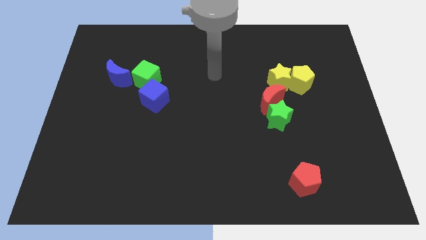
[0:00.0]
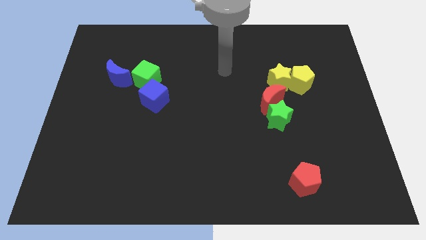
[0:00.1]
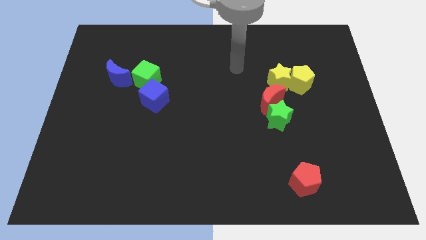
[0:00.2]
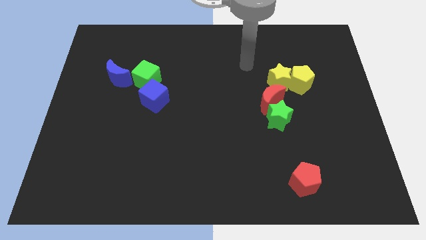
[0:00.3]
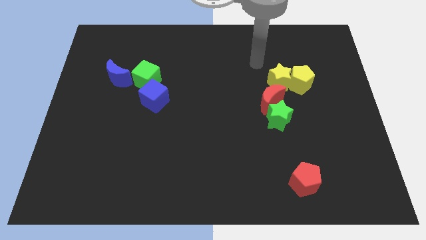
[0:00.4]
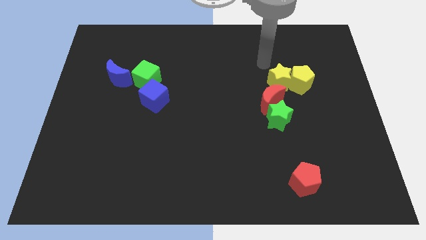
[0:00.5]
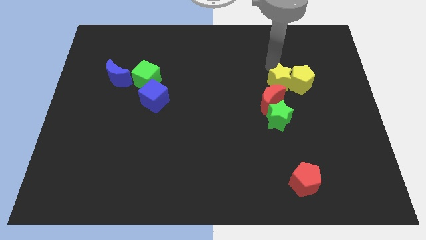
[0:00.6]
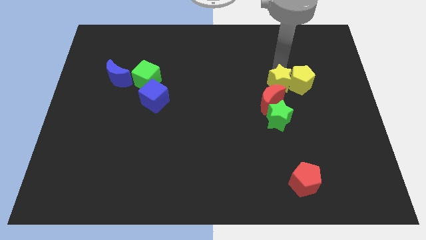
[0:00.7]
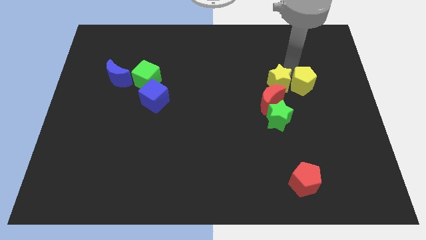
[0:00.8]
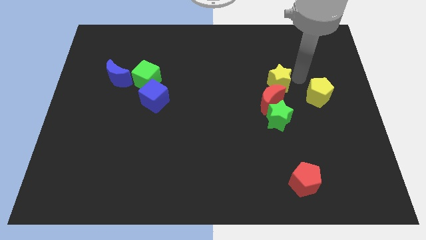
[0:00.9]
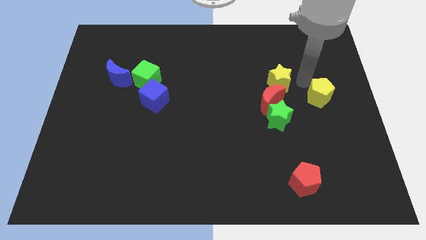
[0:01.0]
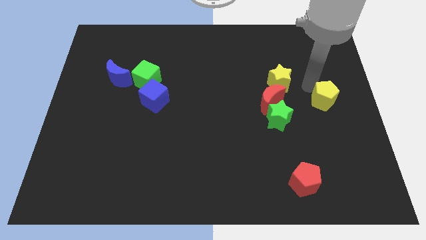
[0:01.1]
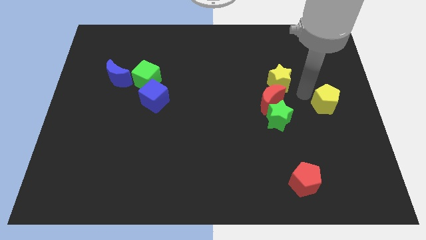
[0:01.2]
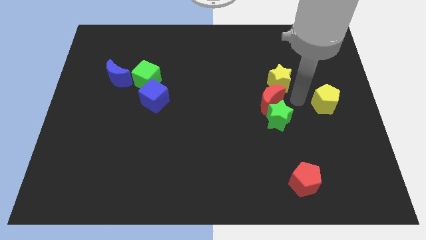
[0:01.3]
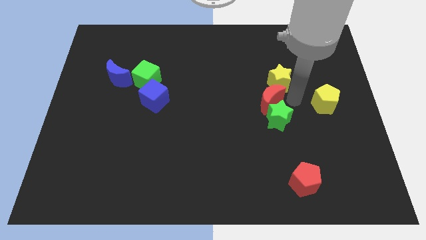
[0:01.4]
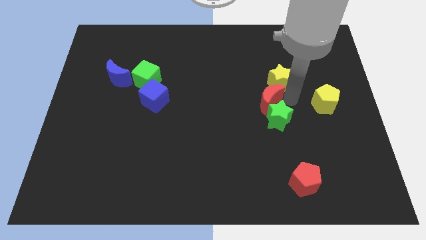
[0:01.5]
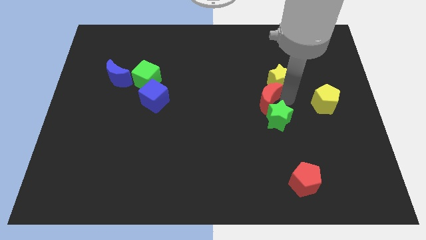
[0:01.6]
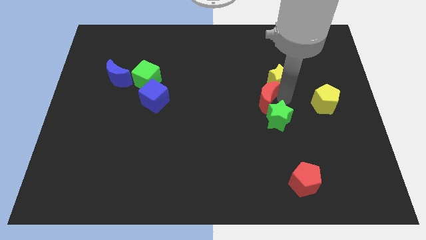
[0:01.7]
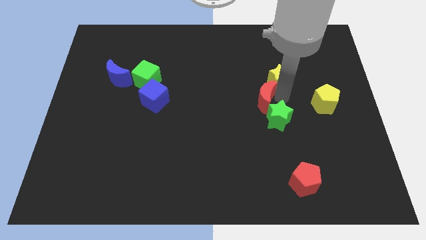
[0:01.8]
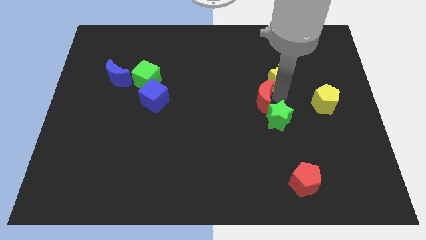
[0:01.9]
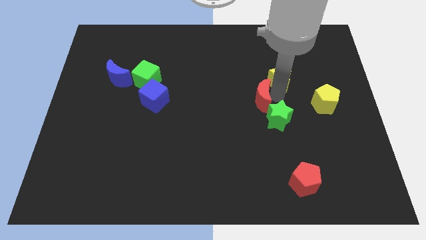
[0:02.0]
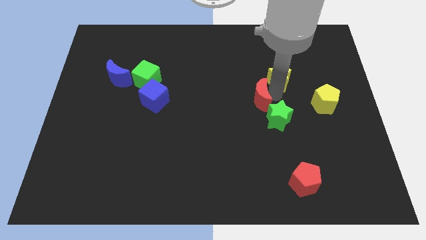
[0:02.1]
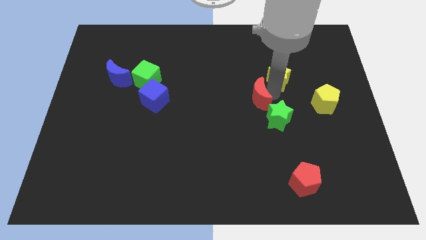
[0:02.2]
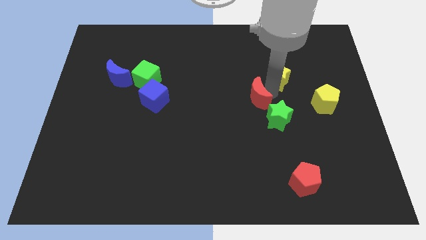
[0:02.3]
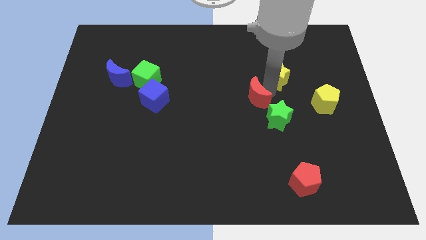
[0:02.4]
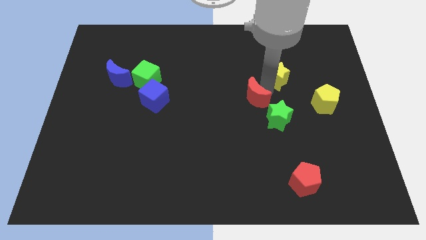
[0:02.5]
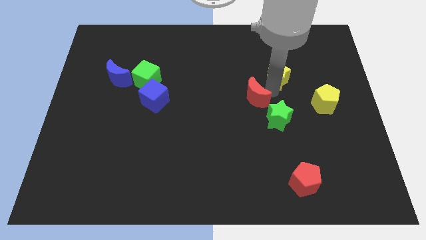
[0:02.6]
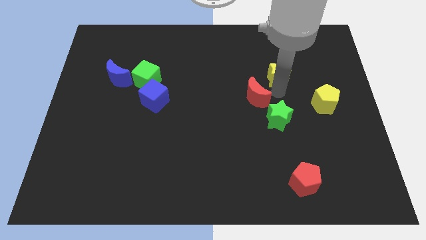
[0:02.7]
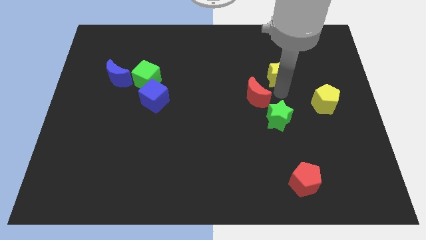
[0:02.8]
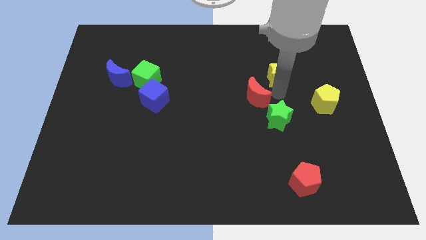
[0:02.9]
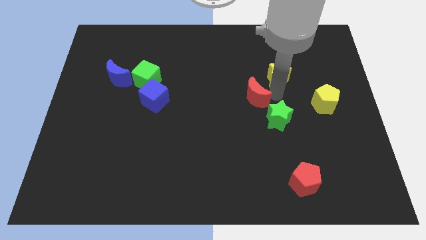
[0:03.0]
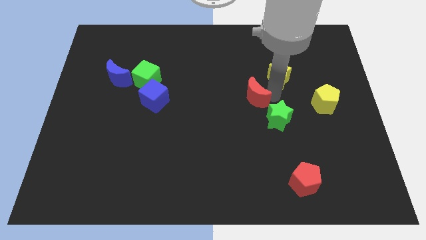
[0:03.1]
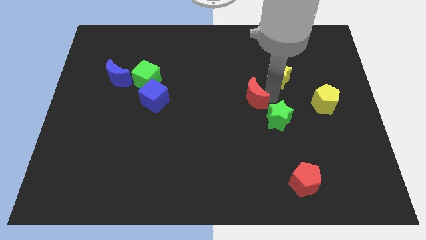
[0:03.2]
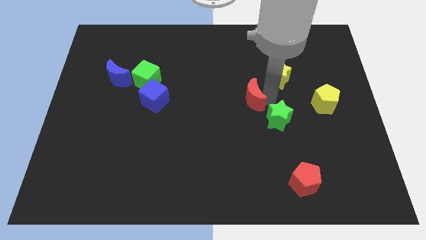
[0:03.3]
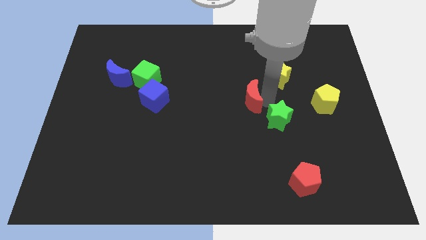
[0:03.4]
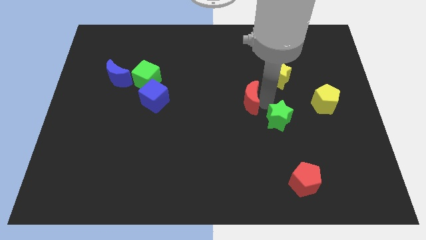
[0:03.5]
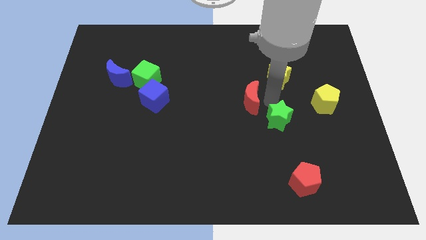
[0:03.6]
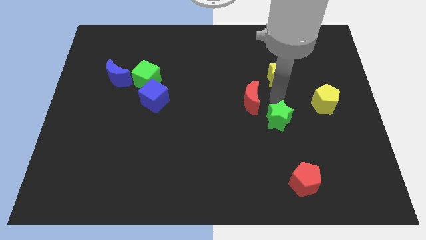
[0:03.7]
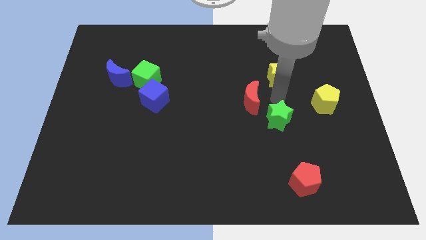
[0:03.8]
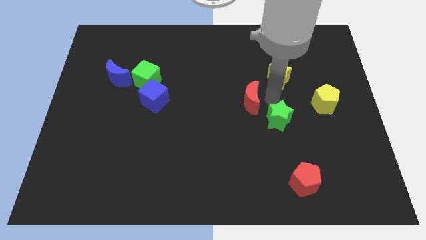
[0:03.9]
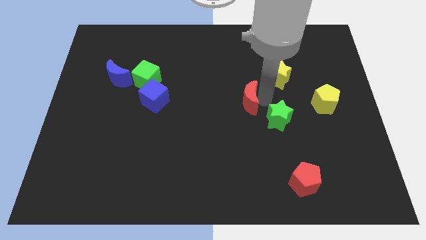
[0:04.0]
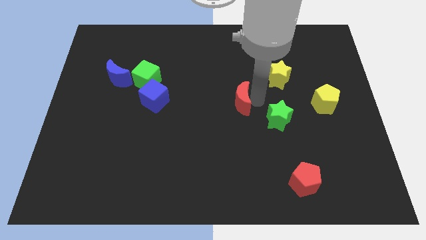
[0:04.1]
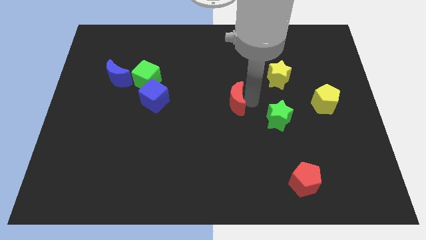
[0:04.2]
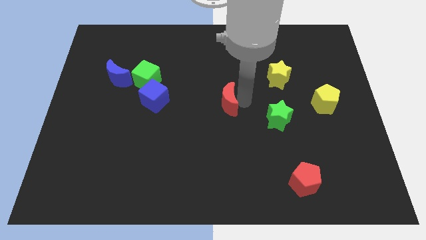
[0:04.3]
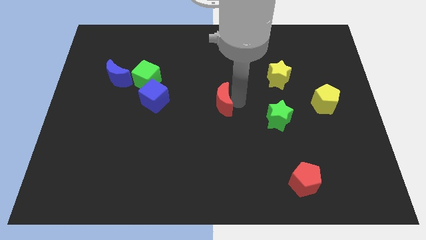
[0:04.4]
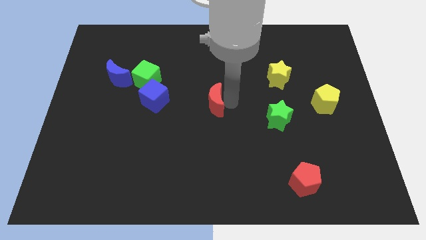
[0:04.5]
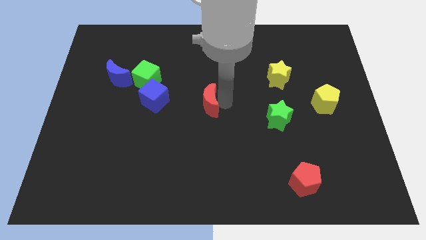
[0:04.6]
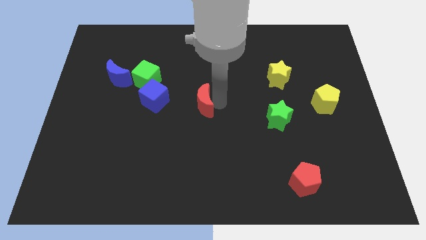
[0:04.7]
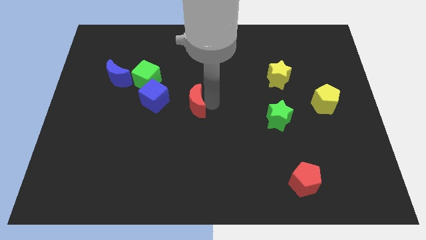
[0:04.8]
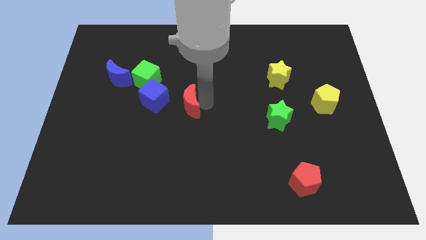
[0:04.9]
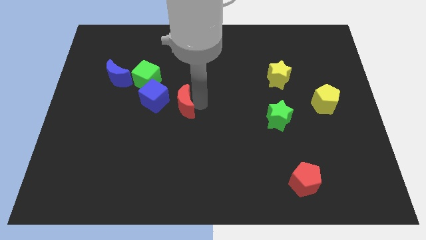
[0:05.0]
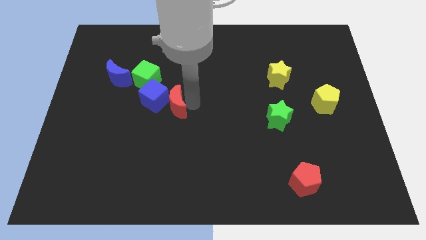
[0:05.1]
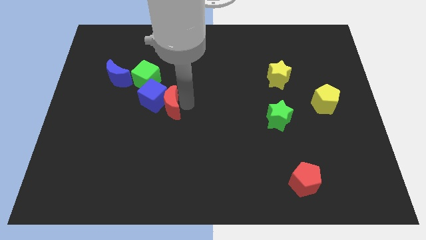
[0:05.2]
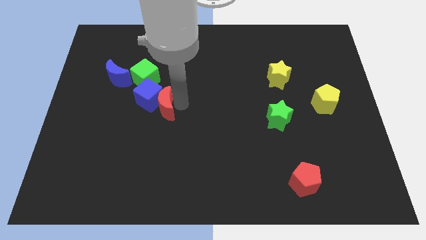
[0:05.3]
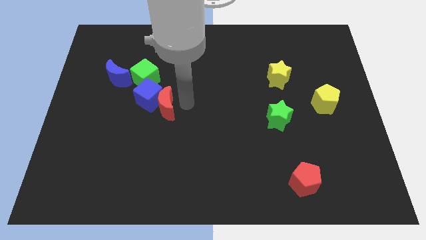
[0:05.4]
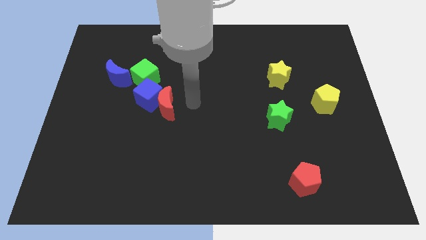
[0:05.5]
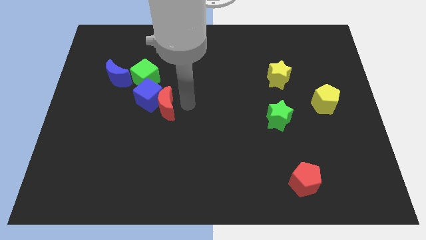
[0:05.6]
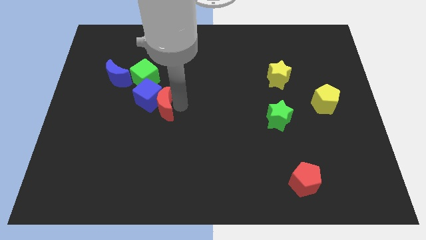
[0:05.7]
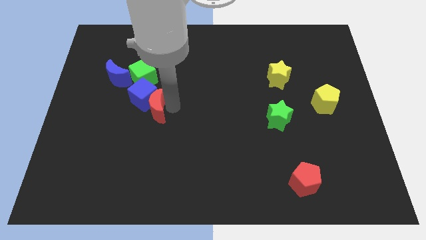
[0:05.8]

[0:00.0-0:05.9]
push the red moon to the bottom side of the green cube

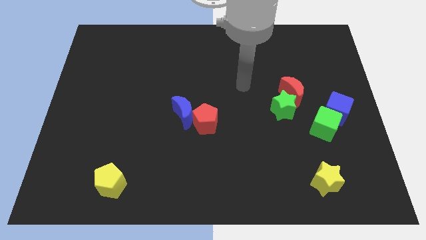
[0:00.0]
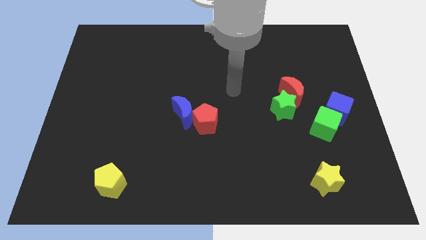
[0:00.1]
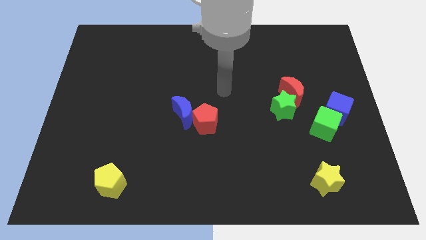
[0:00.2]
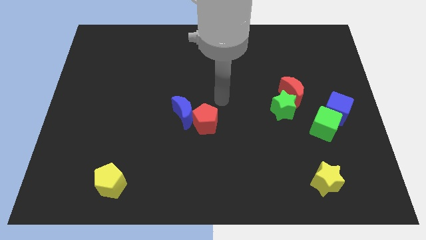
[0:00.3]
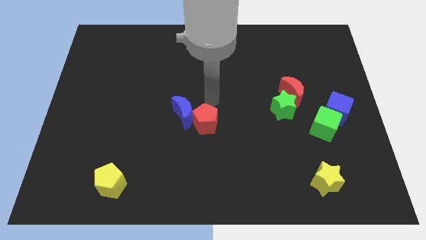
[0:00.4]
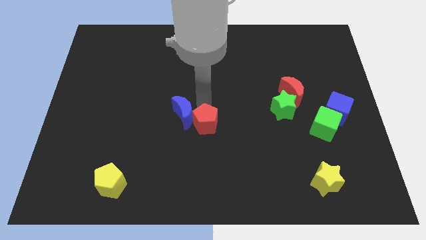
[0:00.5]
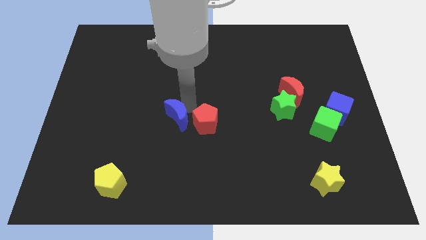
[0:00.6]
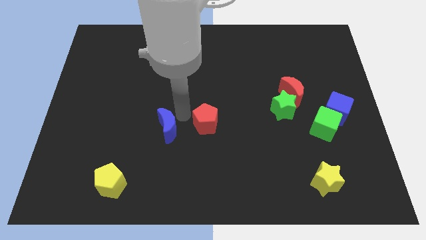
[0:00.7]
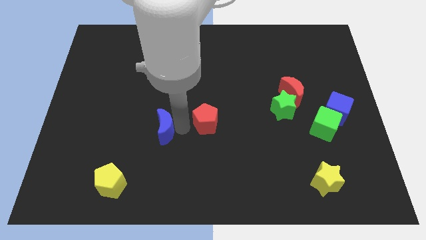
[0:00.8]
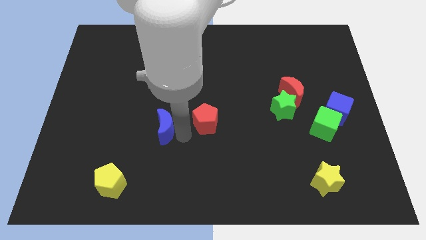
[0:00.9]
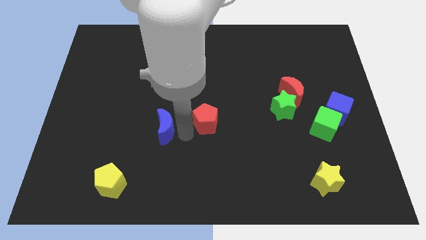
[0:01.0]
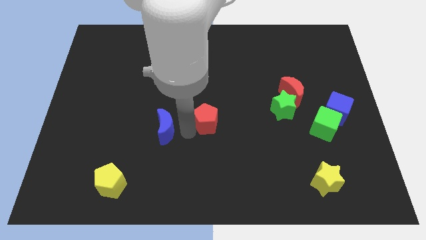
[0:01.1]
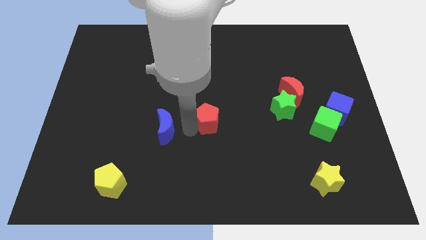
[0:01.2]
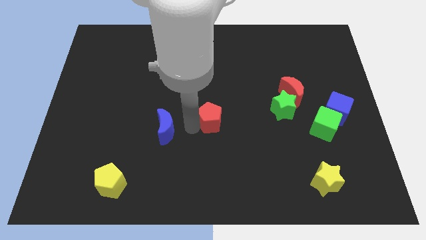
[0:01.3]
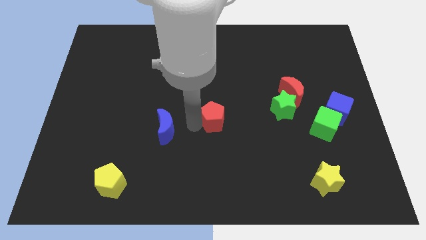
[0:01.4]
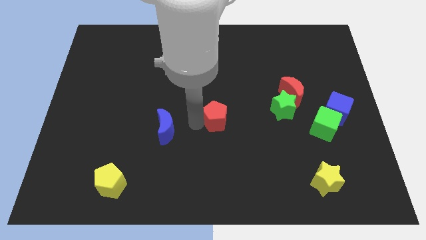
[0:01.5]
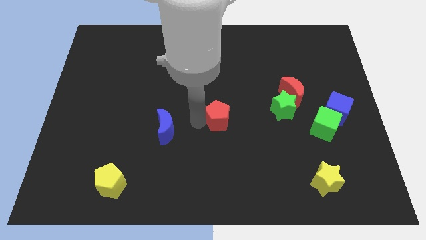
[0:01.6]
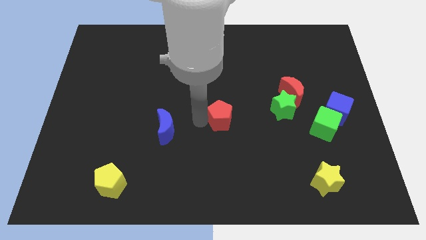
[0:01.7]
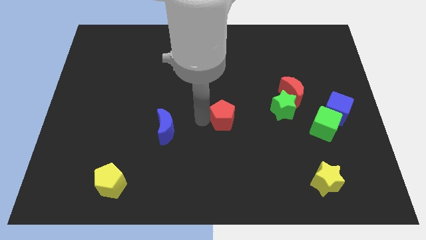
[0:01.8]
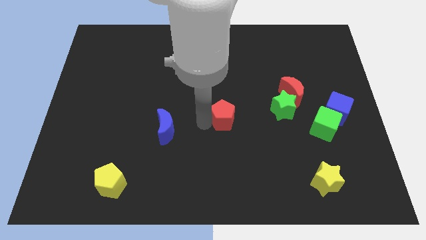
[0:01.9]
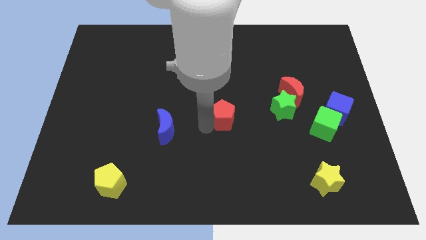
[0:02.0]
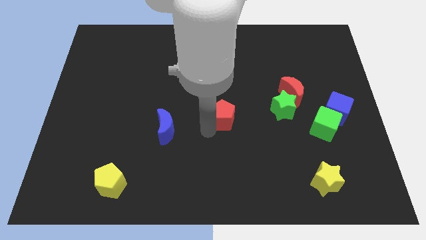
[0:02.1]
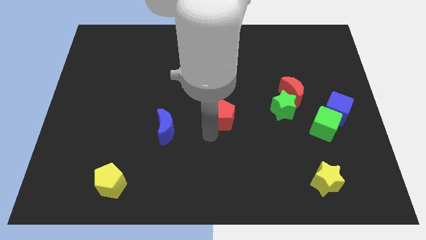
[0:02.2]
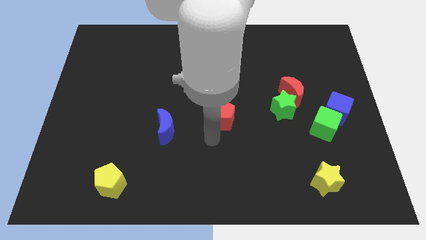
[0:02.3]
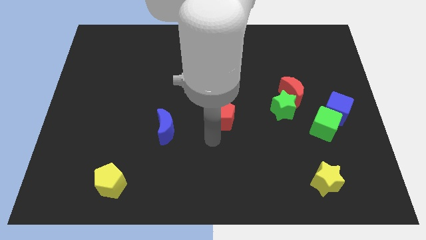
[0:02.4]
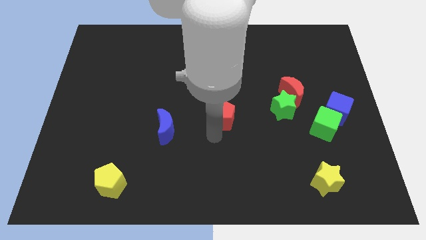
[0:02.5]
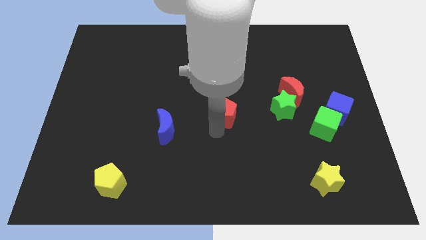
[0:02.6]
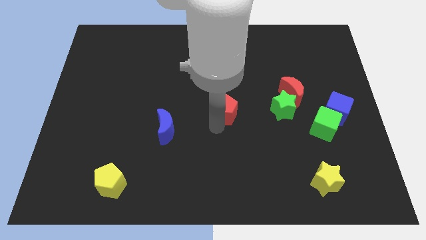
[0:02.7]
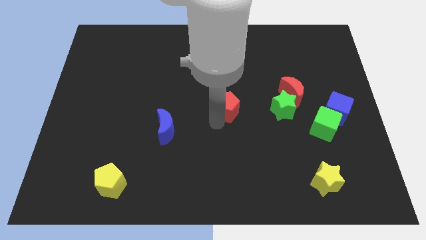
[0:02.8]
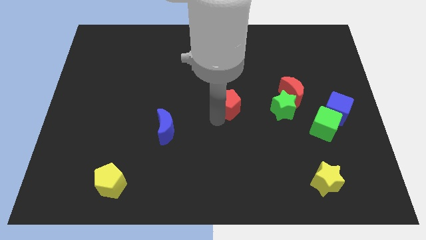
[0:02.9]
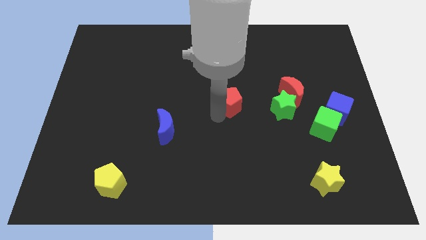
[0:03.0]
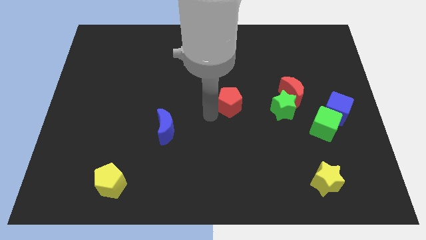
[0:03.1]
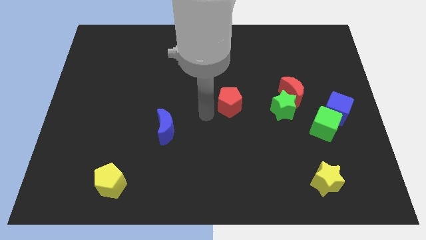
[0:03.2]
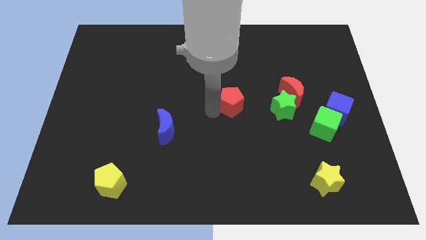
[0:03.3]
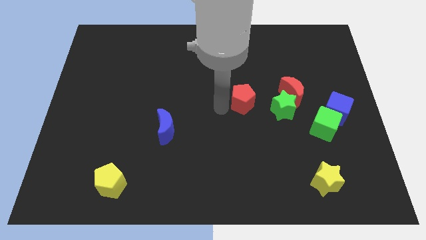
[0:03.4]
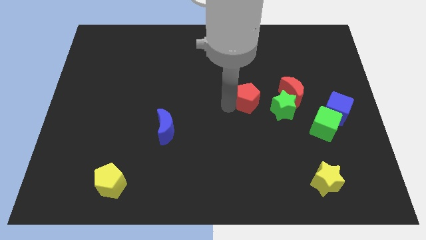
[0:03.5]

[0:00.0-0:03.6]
put the red pentagon diagonally up and to the left of the green star
